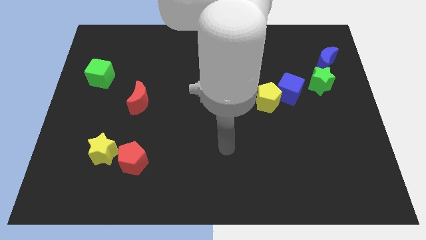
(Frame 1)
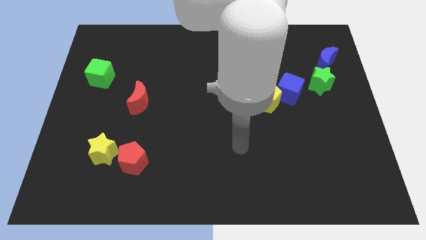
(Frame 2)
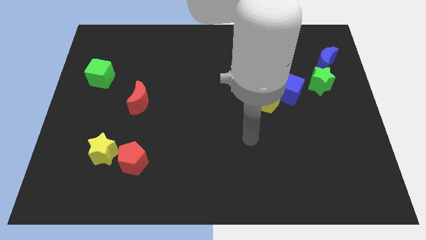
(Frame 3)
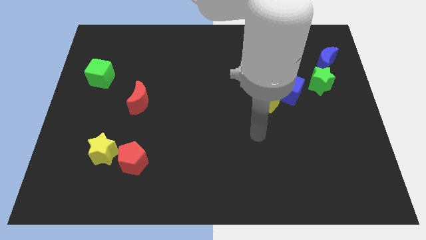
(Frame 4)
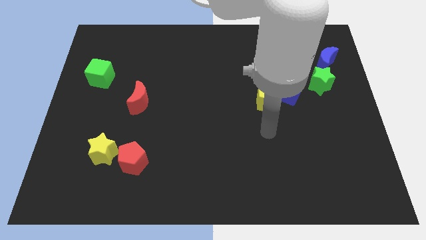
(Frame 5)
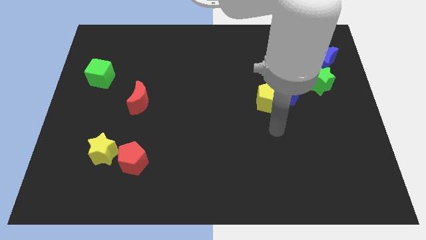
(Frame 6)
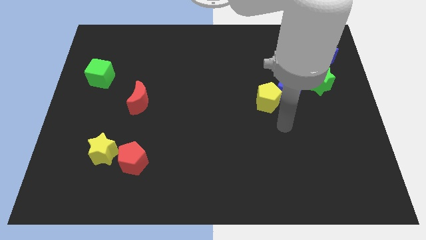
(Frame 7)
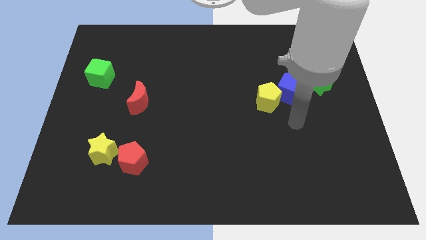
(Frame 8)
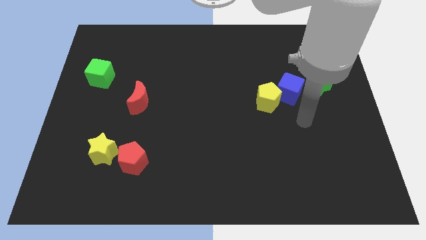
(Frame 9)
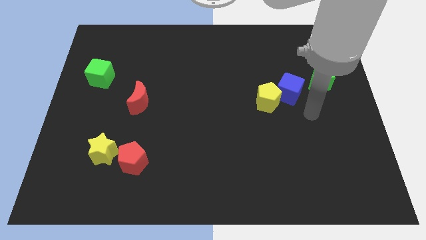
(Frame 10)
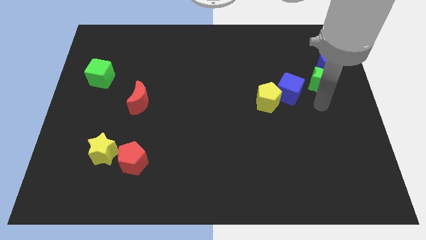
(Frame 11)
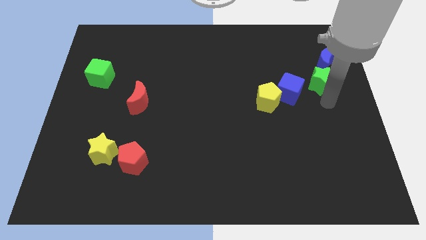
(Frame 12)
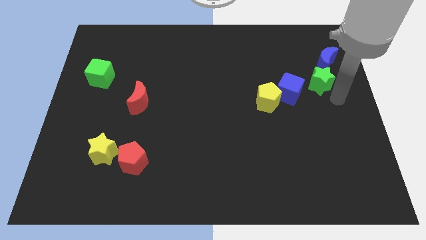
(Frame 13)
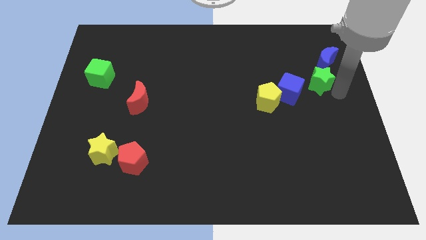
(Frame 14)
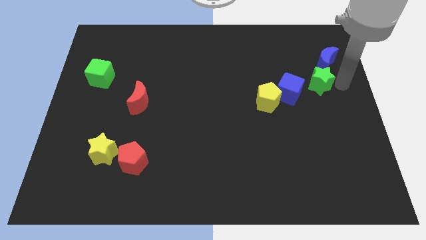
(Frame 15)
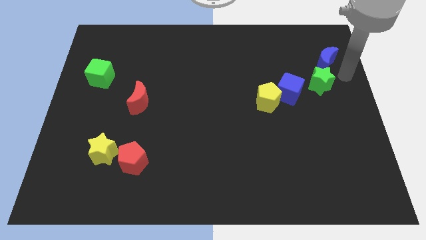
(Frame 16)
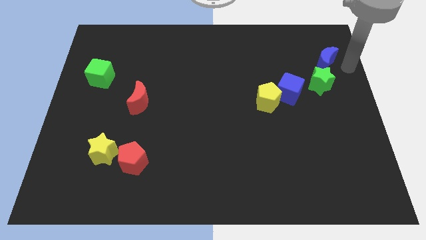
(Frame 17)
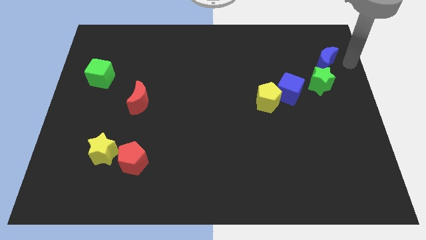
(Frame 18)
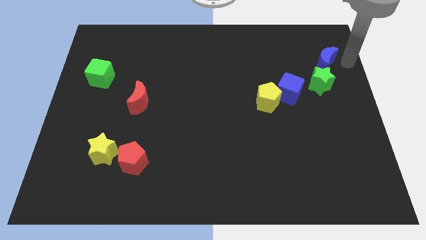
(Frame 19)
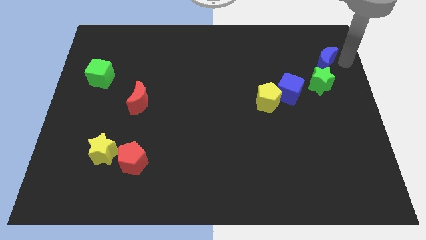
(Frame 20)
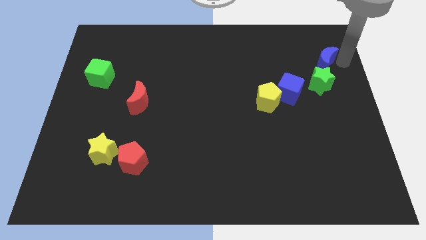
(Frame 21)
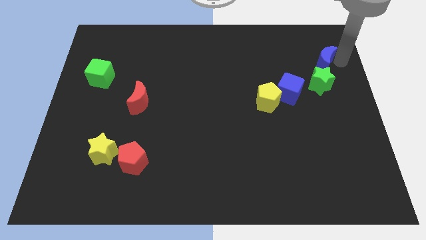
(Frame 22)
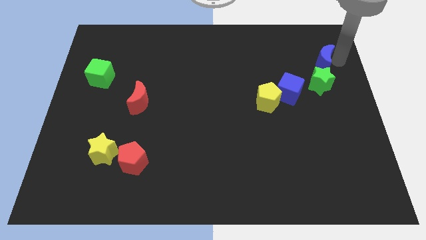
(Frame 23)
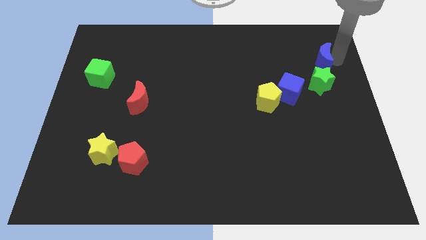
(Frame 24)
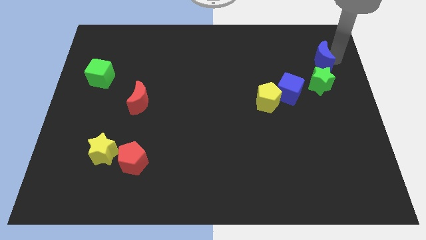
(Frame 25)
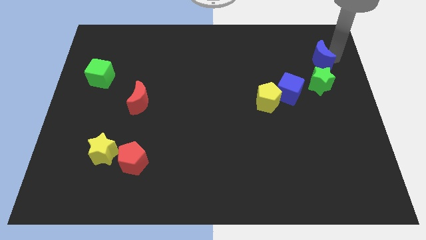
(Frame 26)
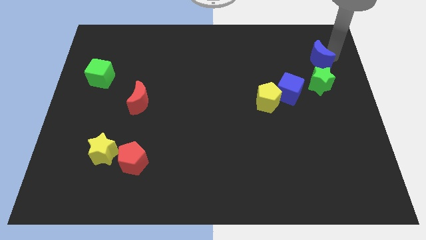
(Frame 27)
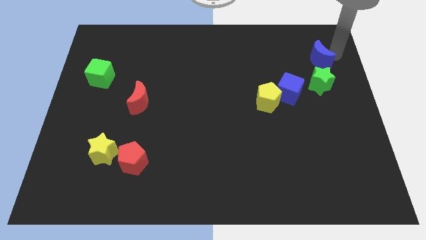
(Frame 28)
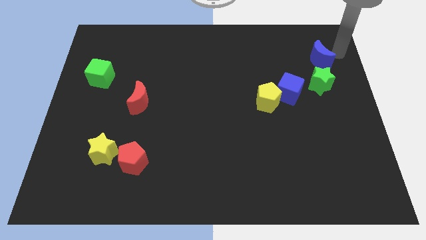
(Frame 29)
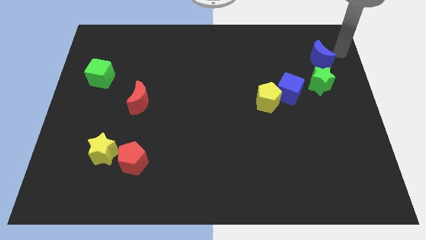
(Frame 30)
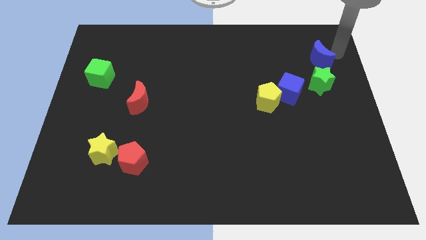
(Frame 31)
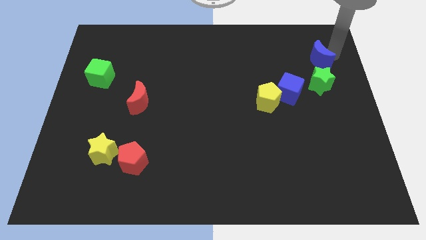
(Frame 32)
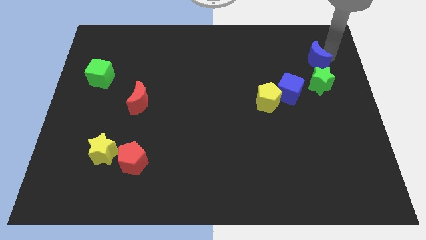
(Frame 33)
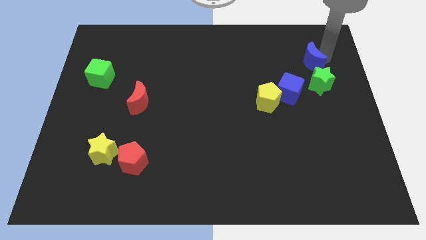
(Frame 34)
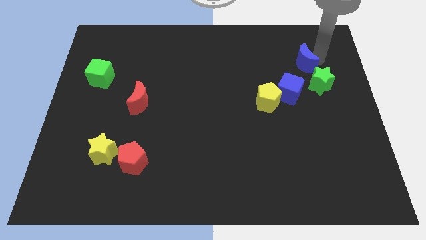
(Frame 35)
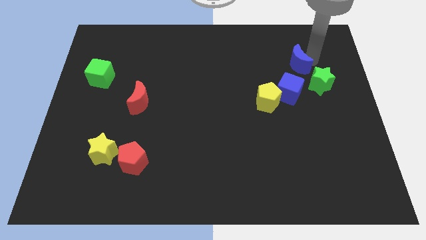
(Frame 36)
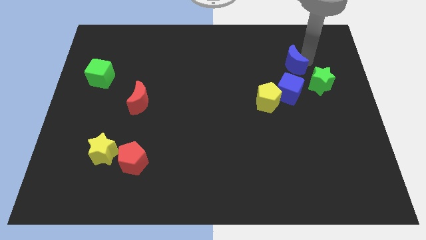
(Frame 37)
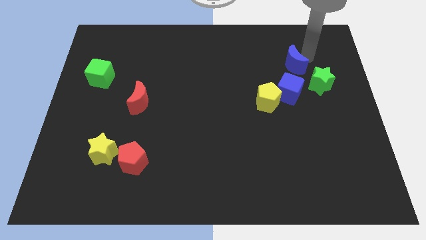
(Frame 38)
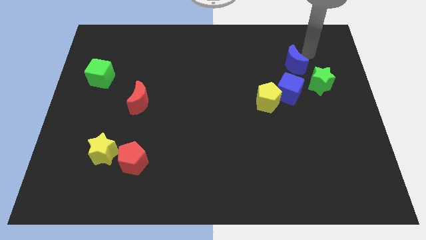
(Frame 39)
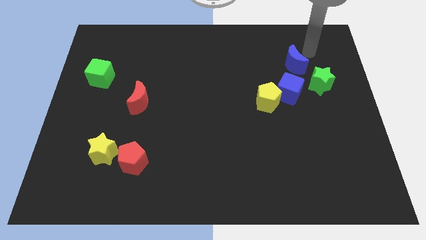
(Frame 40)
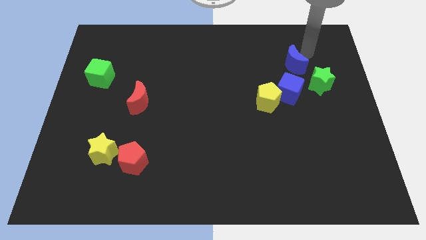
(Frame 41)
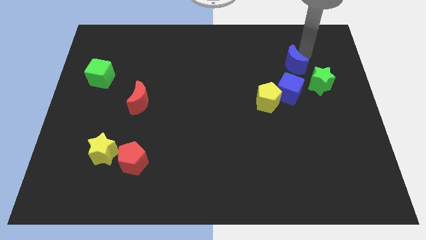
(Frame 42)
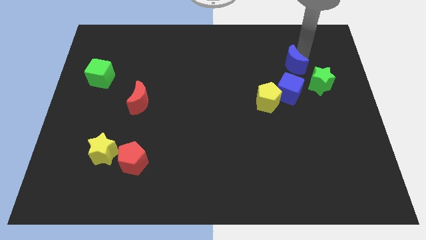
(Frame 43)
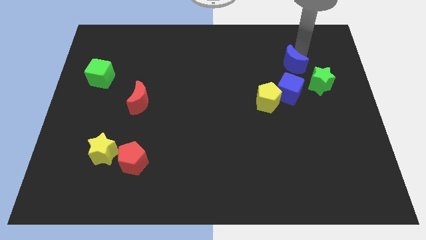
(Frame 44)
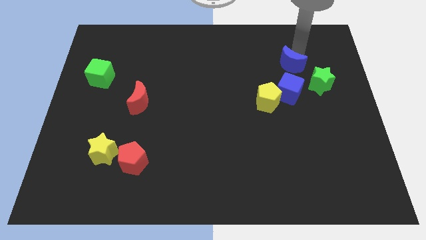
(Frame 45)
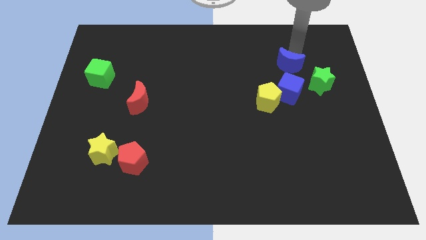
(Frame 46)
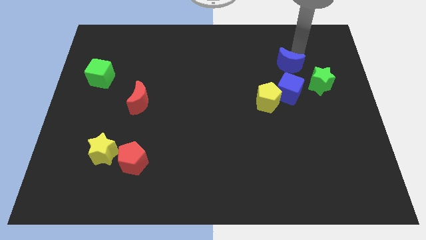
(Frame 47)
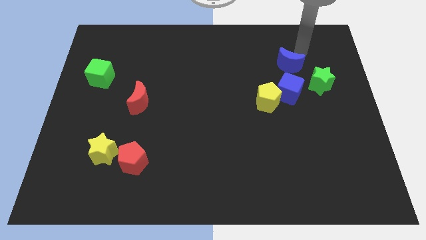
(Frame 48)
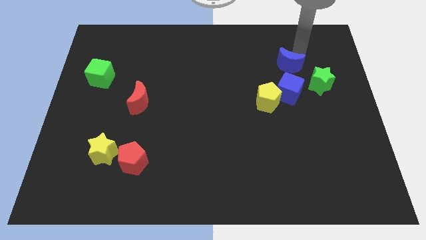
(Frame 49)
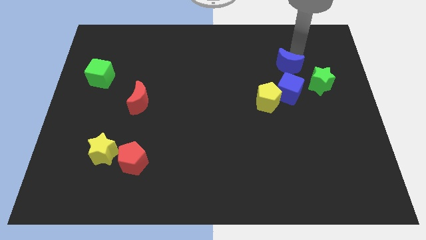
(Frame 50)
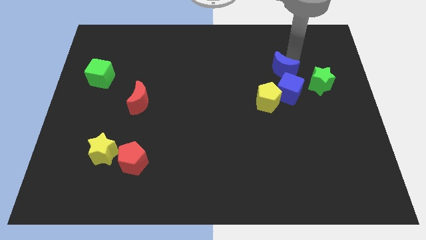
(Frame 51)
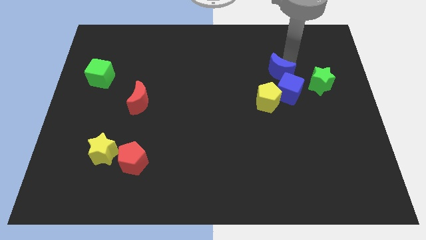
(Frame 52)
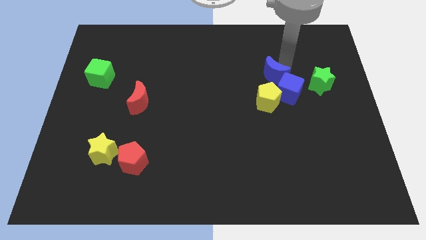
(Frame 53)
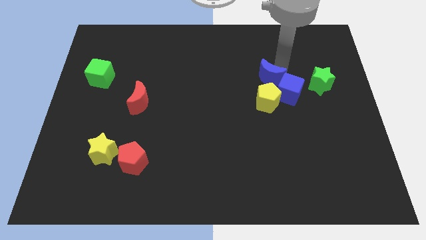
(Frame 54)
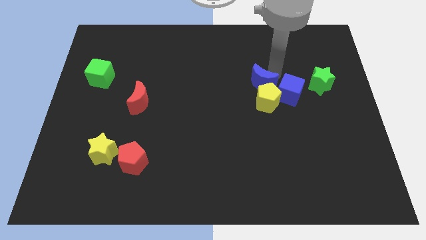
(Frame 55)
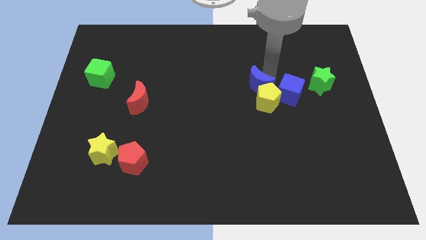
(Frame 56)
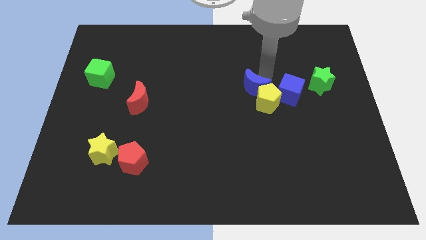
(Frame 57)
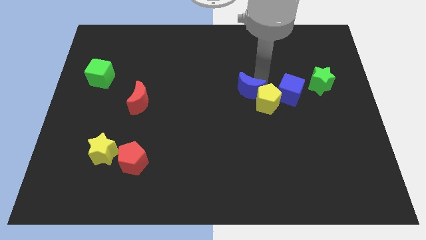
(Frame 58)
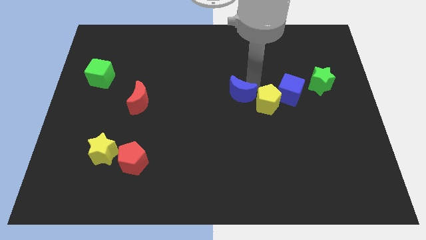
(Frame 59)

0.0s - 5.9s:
move the blue moon down and then left

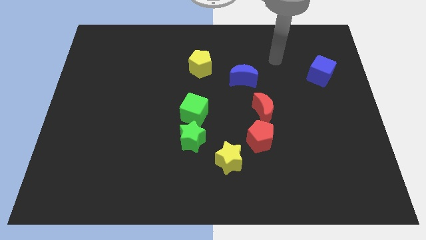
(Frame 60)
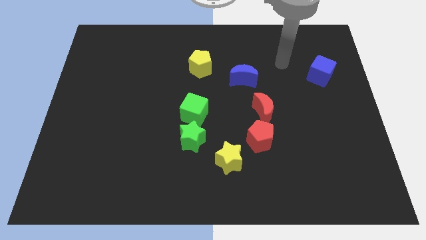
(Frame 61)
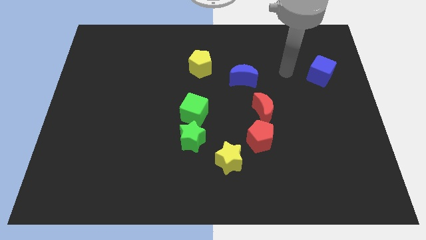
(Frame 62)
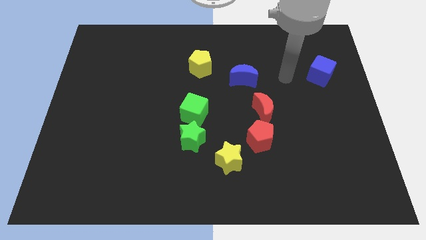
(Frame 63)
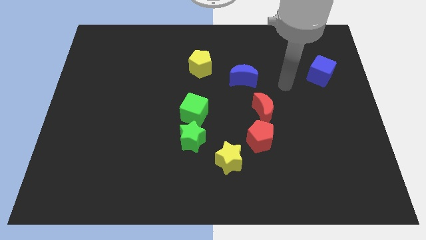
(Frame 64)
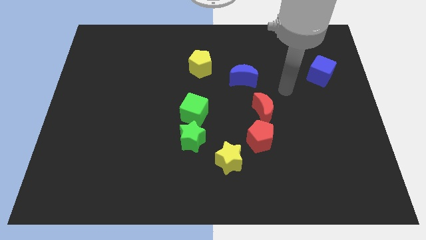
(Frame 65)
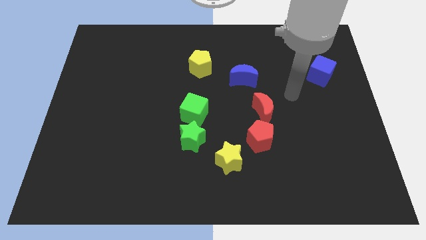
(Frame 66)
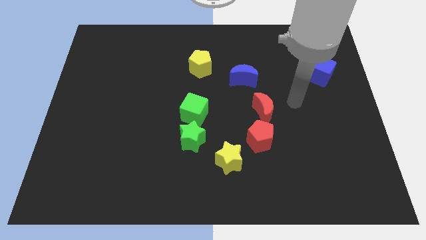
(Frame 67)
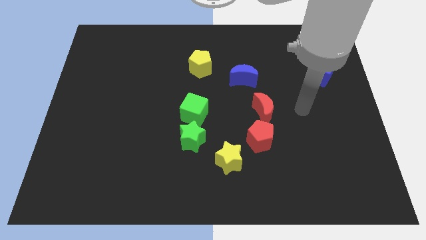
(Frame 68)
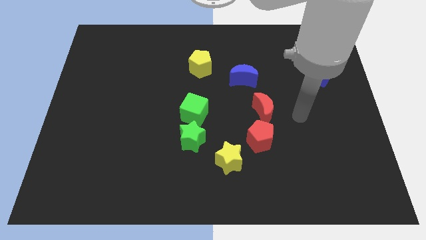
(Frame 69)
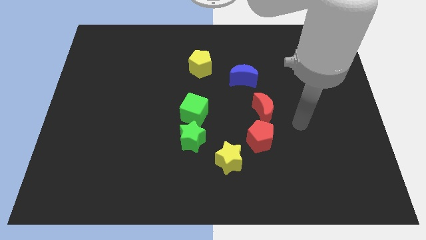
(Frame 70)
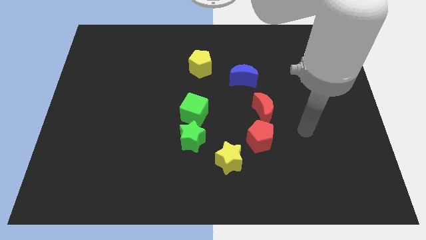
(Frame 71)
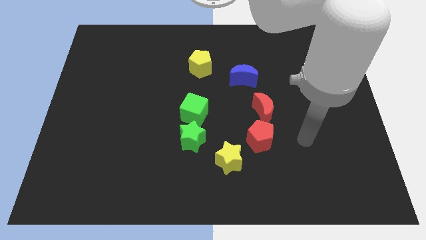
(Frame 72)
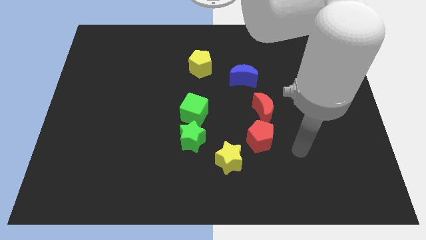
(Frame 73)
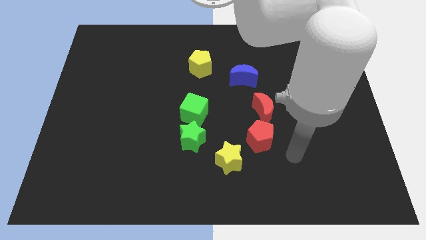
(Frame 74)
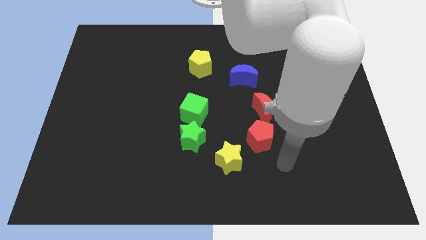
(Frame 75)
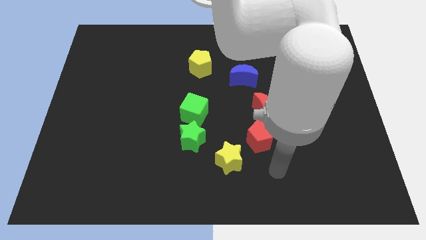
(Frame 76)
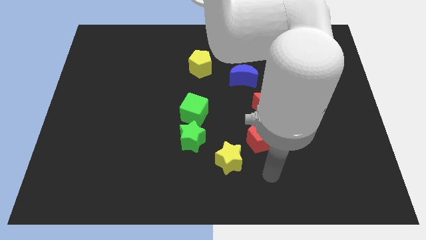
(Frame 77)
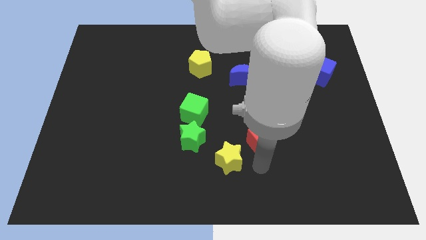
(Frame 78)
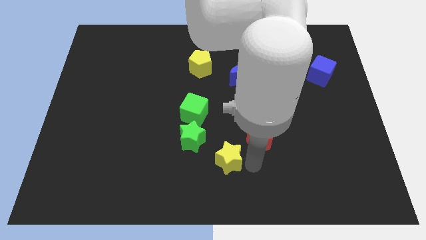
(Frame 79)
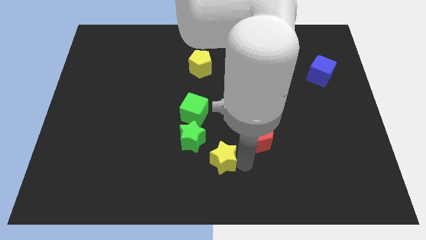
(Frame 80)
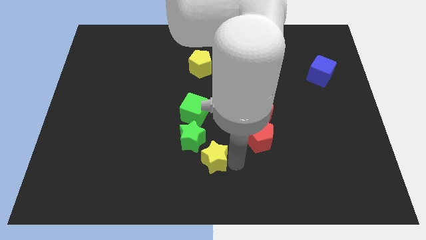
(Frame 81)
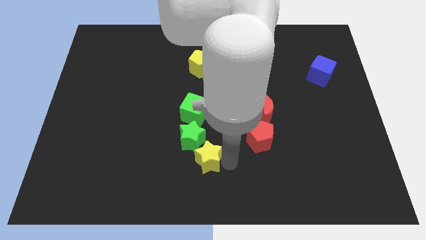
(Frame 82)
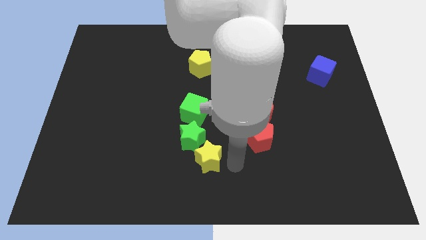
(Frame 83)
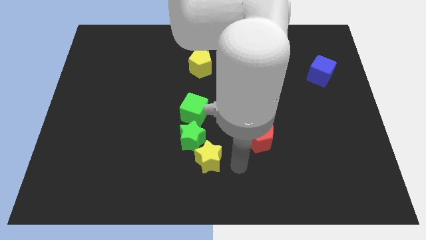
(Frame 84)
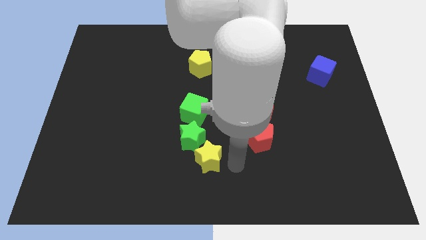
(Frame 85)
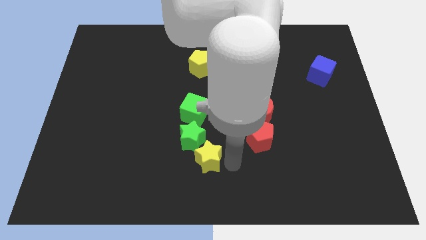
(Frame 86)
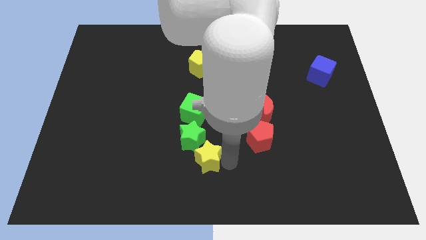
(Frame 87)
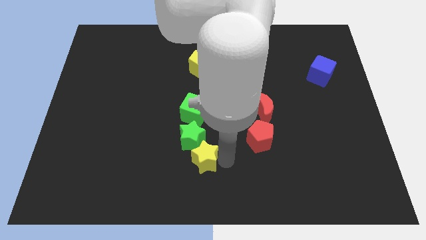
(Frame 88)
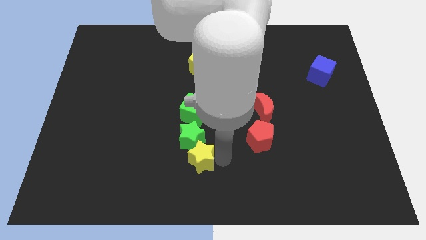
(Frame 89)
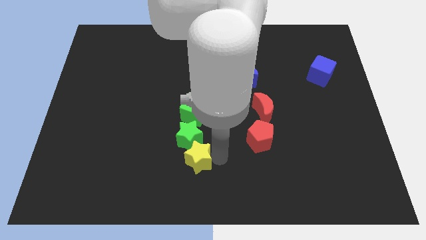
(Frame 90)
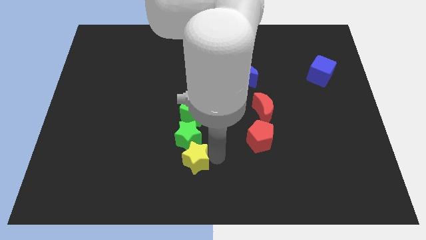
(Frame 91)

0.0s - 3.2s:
slightly slide the yellow star to the left
